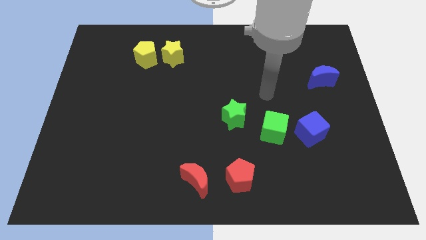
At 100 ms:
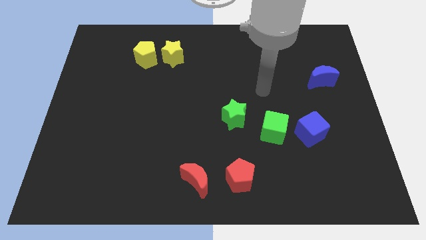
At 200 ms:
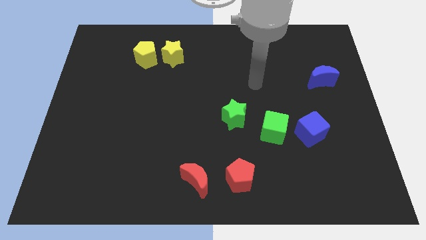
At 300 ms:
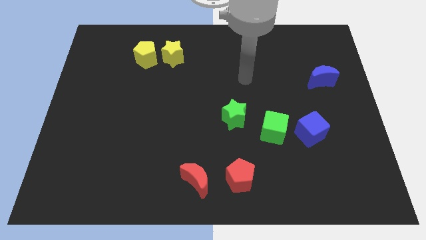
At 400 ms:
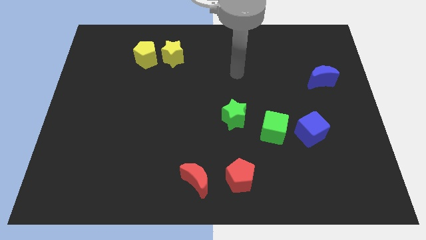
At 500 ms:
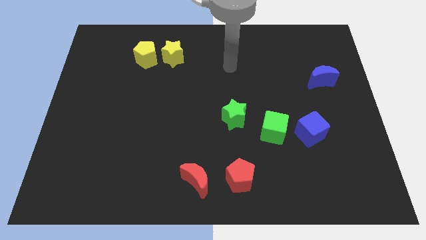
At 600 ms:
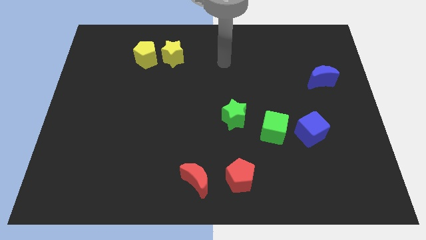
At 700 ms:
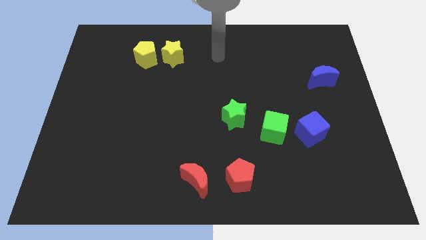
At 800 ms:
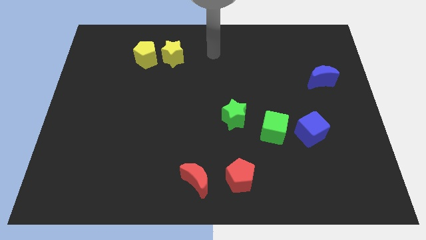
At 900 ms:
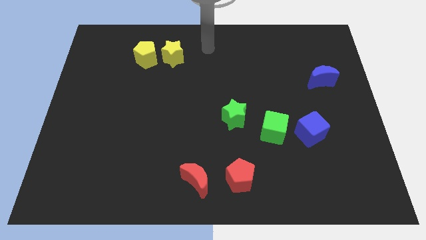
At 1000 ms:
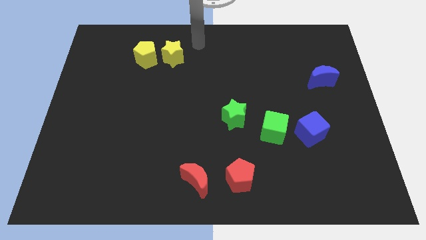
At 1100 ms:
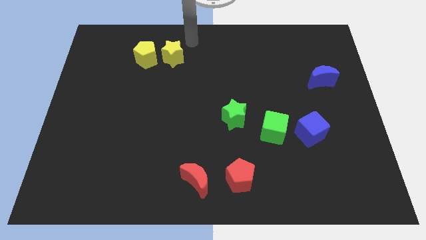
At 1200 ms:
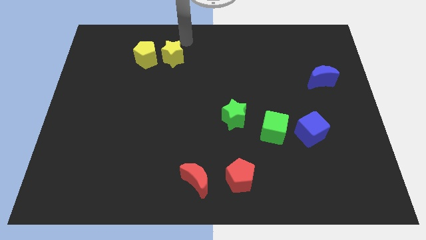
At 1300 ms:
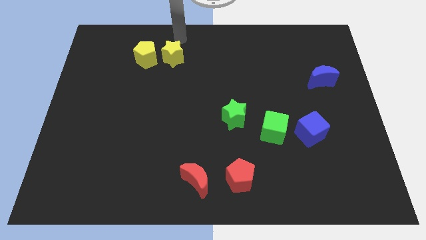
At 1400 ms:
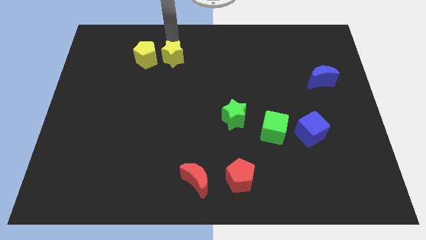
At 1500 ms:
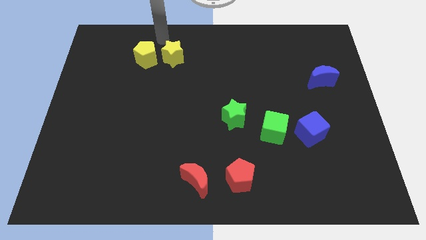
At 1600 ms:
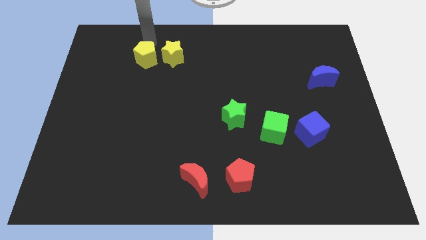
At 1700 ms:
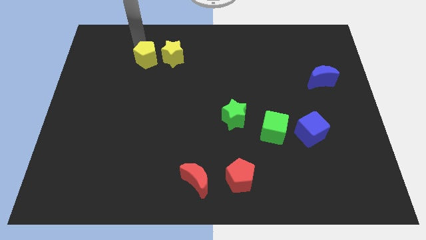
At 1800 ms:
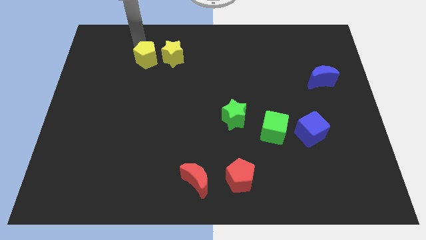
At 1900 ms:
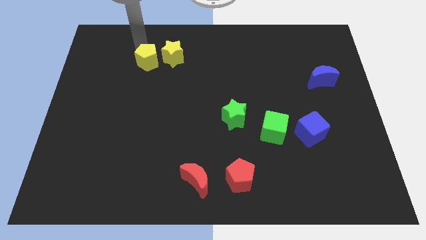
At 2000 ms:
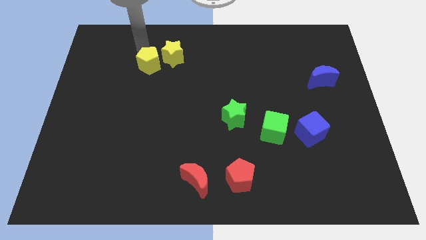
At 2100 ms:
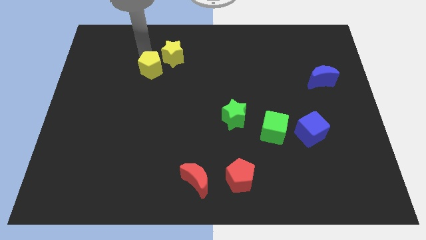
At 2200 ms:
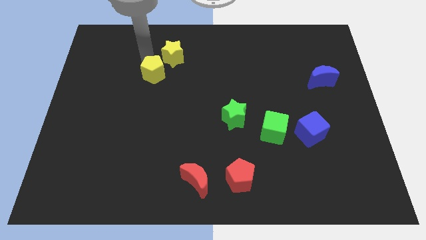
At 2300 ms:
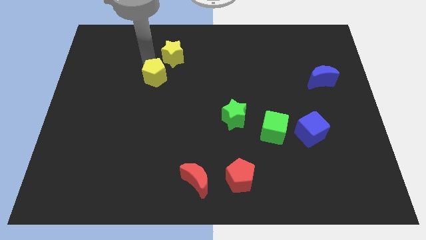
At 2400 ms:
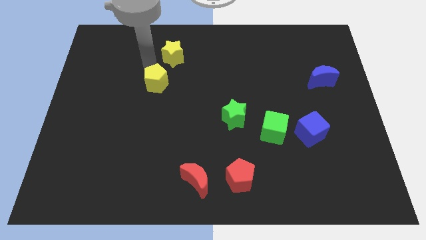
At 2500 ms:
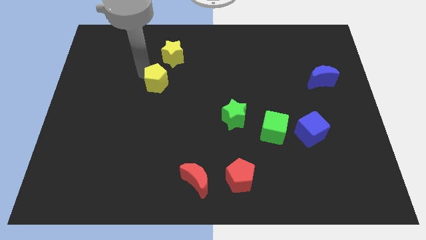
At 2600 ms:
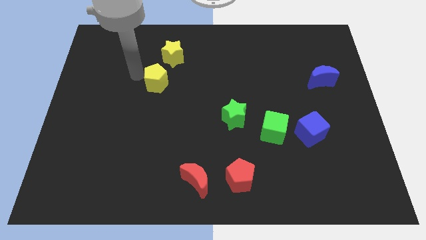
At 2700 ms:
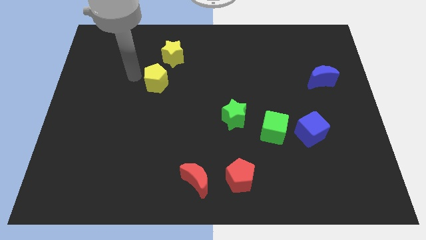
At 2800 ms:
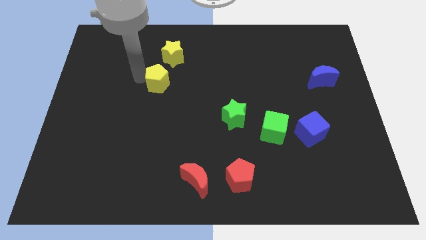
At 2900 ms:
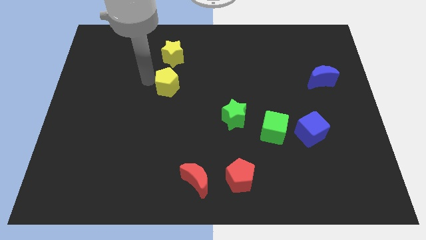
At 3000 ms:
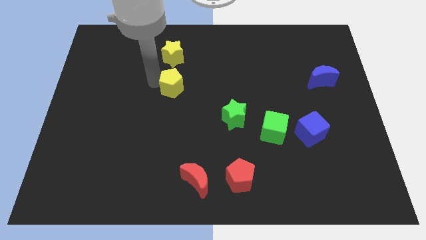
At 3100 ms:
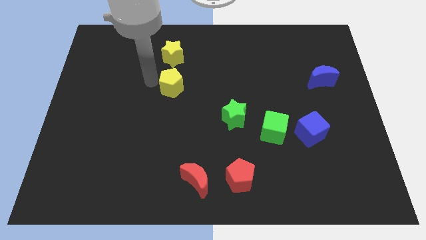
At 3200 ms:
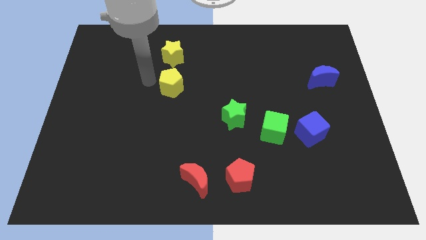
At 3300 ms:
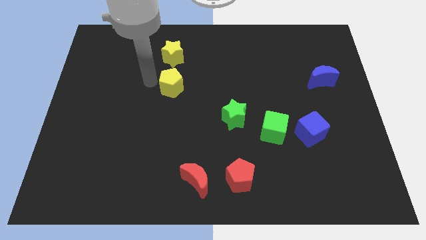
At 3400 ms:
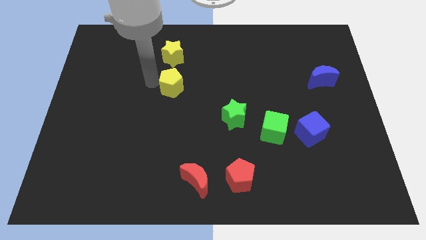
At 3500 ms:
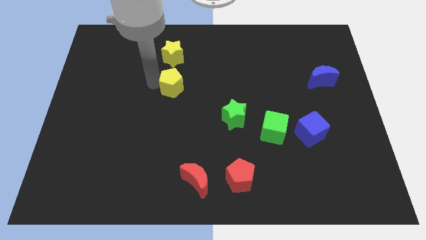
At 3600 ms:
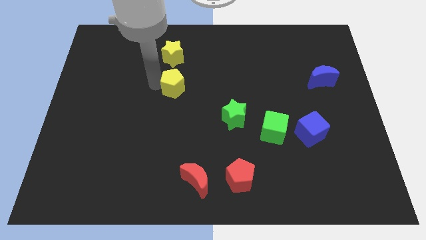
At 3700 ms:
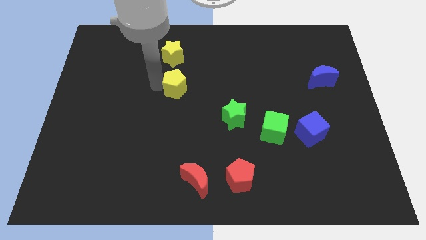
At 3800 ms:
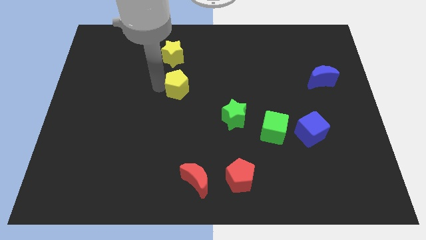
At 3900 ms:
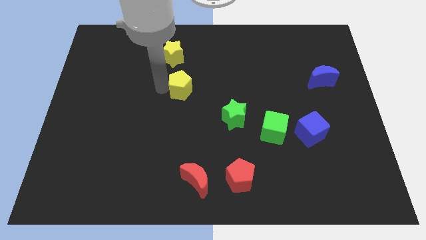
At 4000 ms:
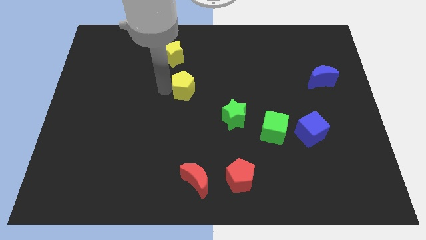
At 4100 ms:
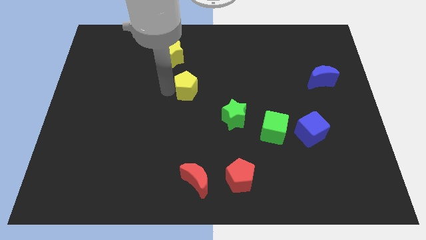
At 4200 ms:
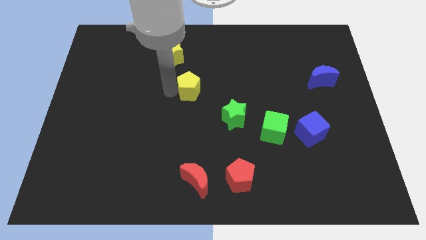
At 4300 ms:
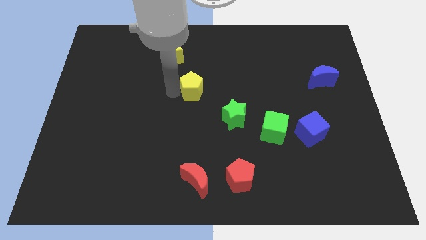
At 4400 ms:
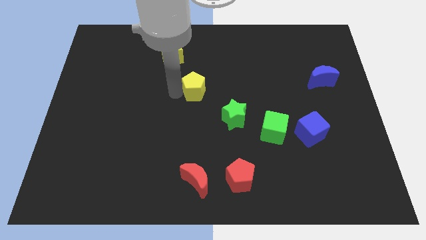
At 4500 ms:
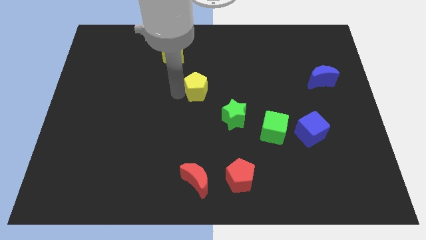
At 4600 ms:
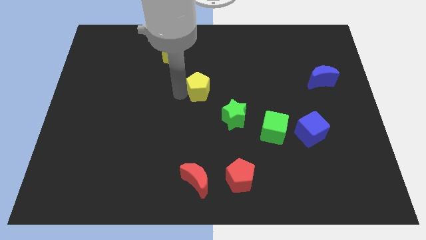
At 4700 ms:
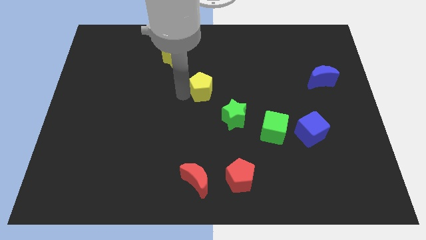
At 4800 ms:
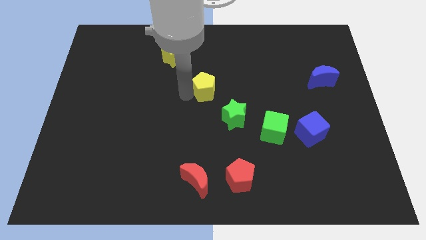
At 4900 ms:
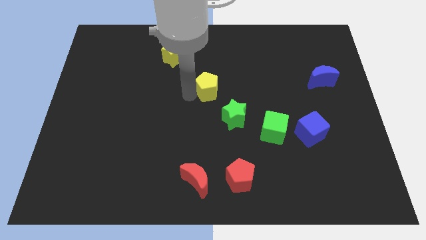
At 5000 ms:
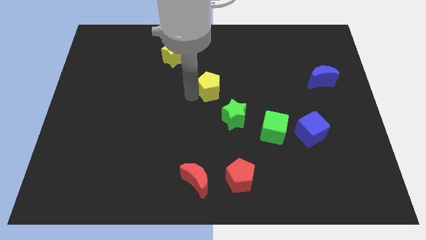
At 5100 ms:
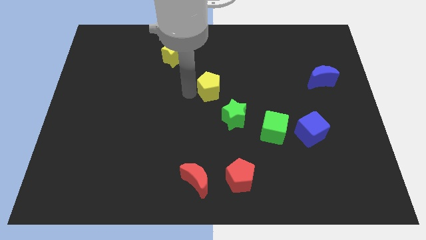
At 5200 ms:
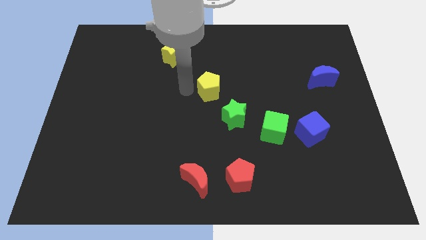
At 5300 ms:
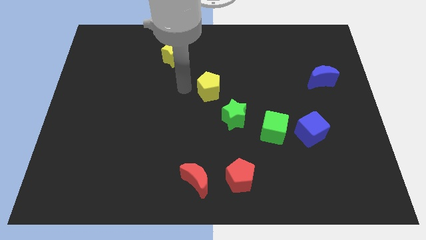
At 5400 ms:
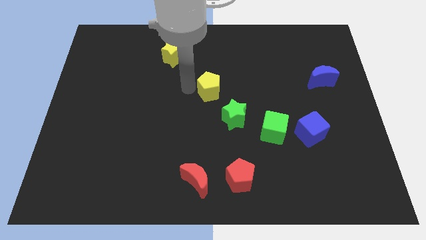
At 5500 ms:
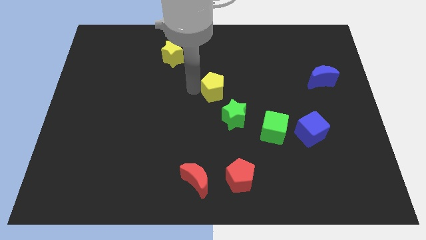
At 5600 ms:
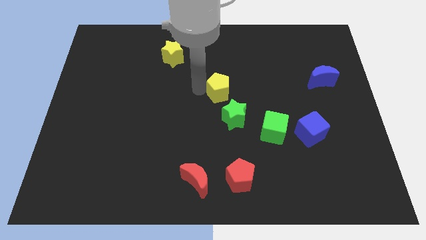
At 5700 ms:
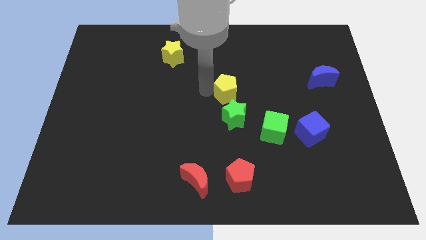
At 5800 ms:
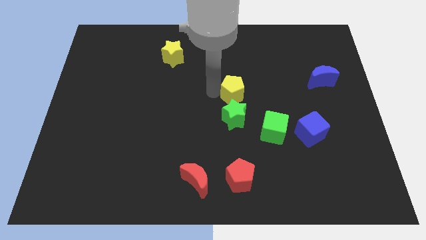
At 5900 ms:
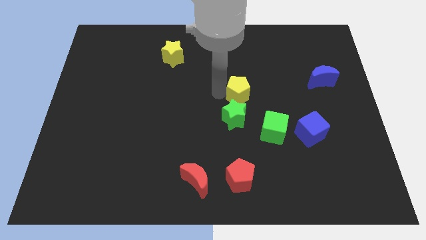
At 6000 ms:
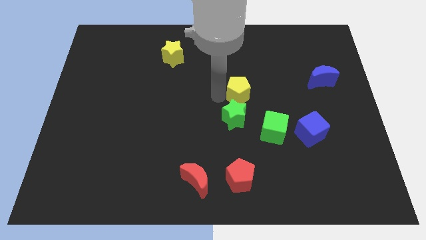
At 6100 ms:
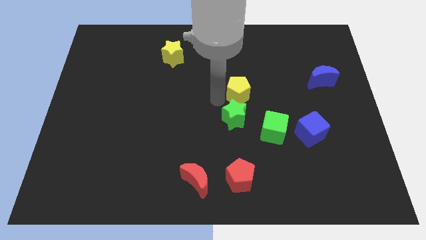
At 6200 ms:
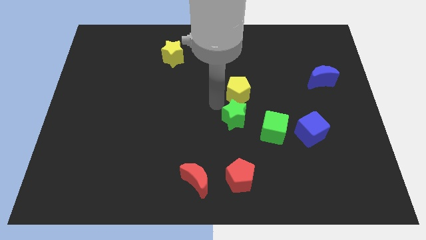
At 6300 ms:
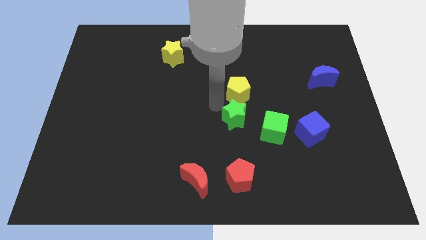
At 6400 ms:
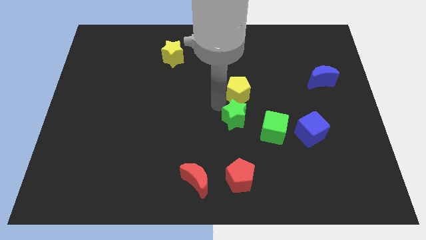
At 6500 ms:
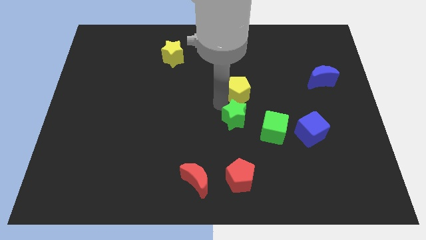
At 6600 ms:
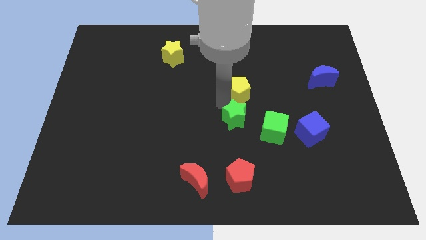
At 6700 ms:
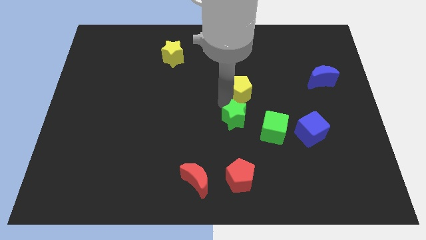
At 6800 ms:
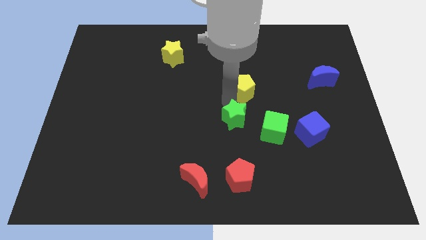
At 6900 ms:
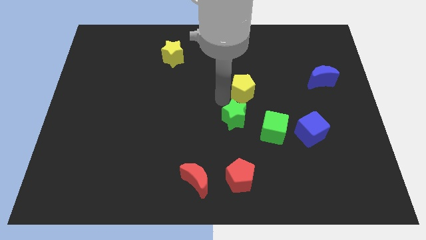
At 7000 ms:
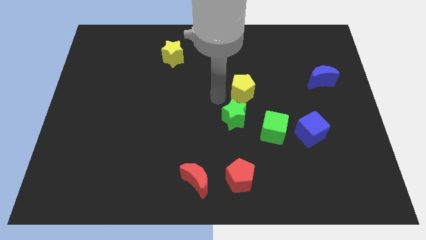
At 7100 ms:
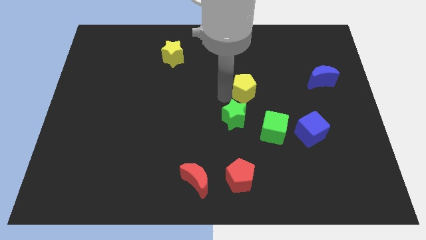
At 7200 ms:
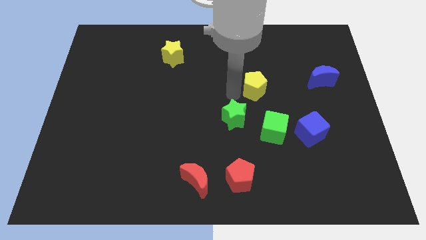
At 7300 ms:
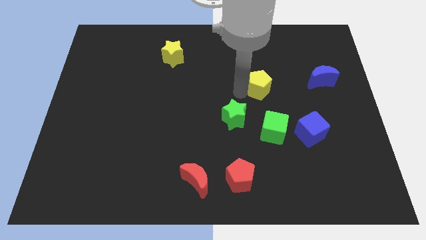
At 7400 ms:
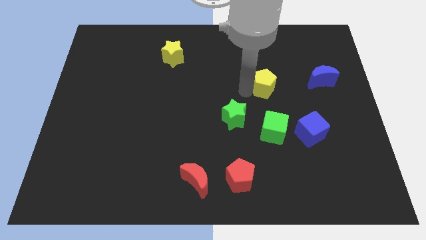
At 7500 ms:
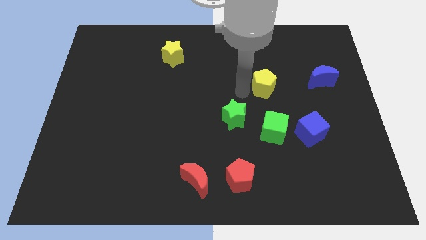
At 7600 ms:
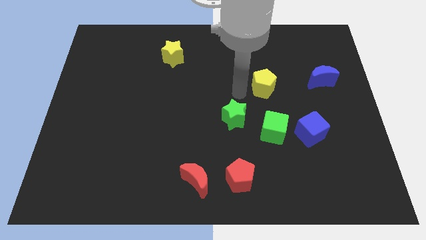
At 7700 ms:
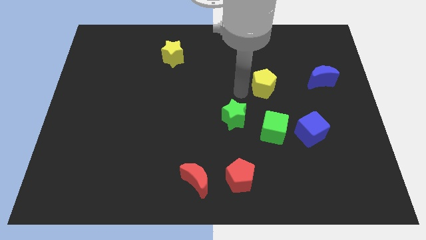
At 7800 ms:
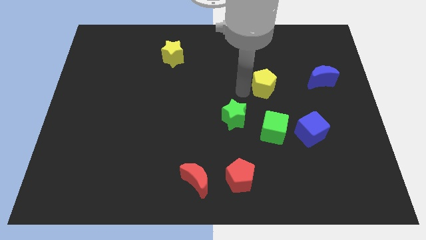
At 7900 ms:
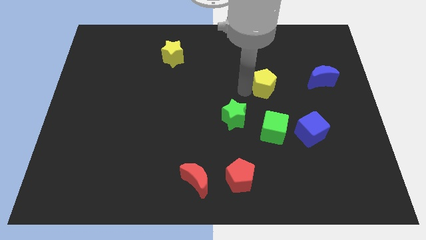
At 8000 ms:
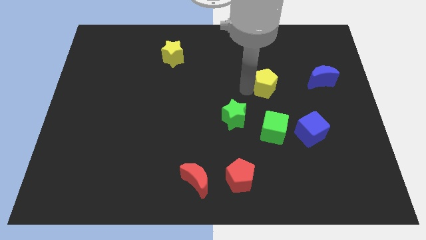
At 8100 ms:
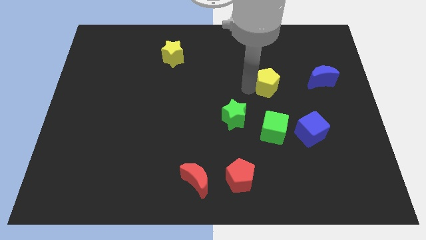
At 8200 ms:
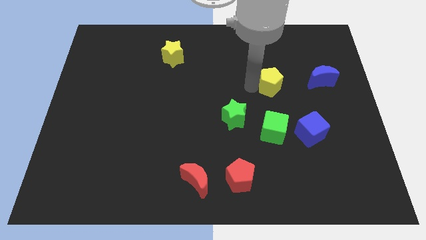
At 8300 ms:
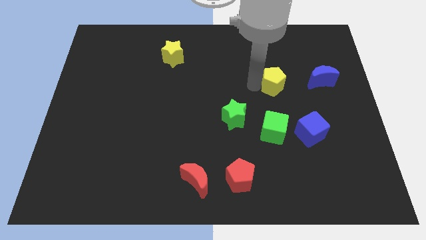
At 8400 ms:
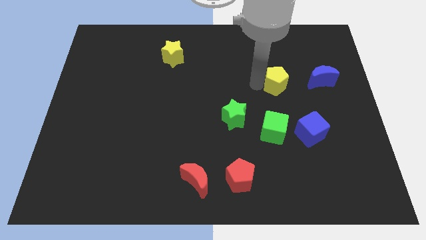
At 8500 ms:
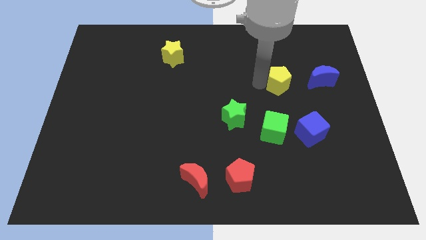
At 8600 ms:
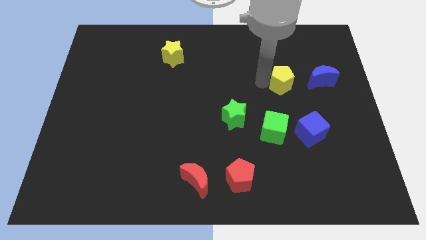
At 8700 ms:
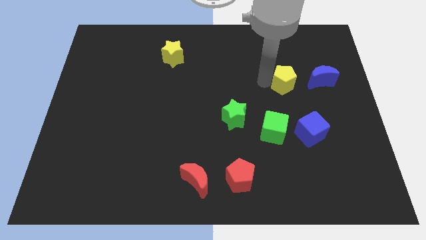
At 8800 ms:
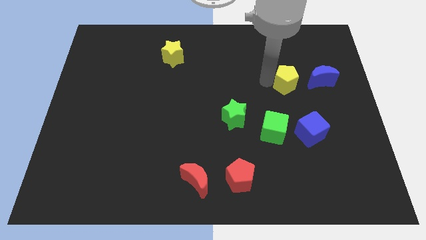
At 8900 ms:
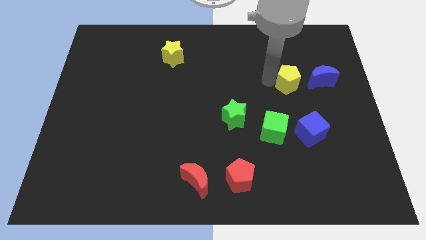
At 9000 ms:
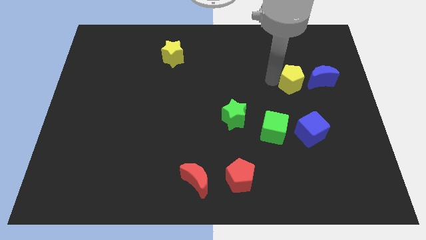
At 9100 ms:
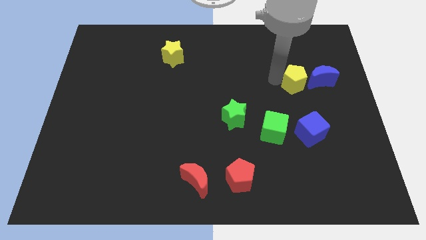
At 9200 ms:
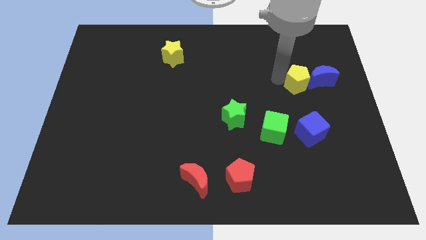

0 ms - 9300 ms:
push the yellow pentagon close to the blue moon
